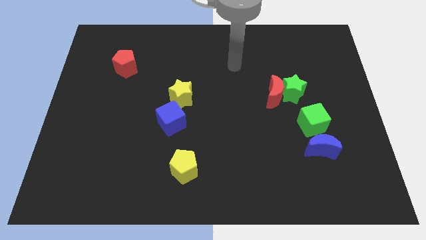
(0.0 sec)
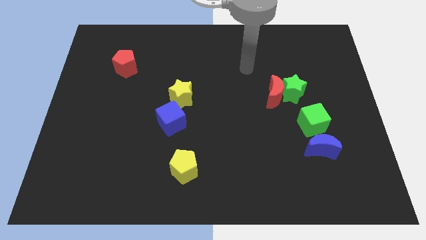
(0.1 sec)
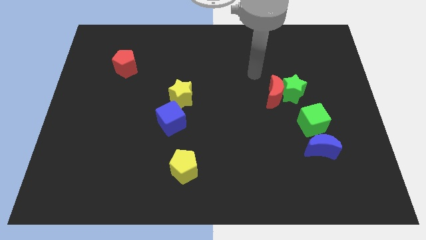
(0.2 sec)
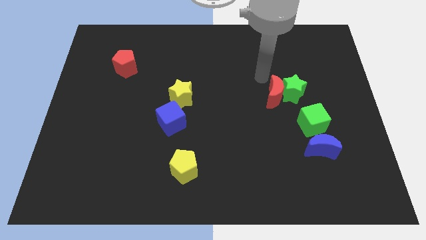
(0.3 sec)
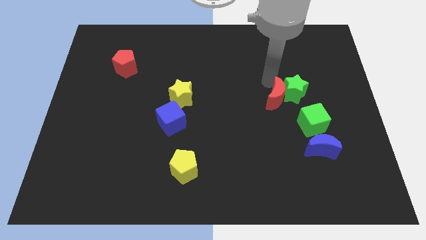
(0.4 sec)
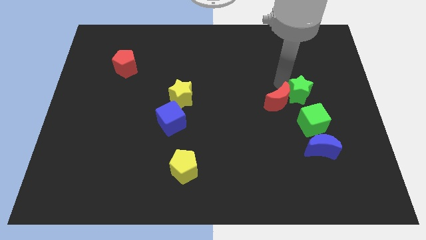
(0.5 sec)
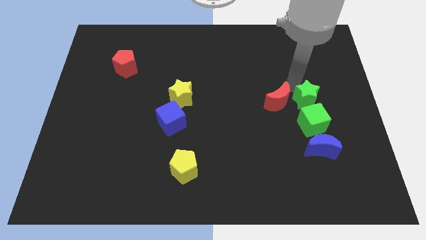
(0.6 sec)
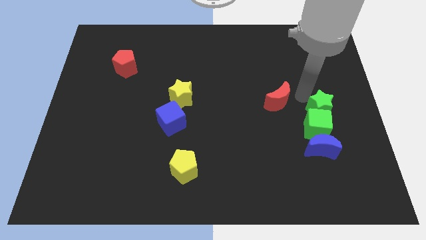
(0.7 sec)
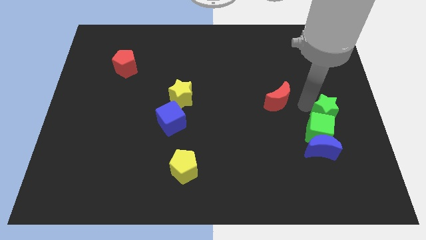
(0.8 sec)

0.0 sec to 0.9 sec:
pull the red moon apart from the green star

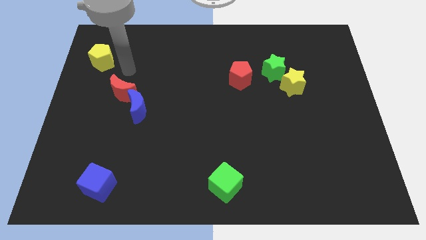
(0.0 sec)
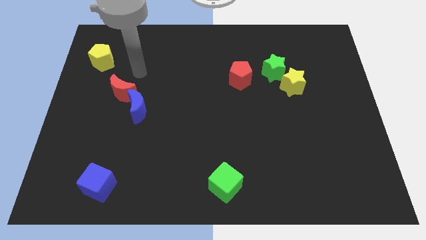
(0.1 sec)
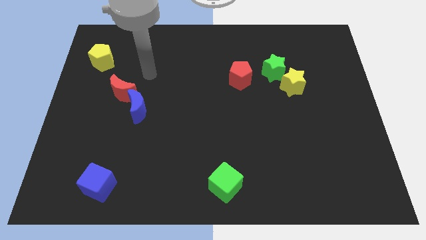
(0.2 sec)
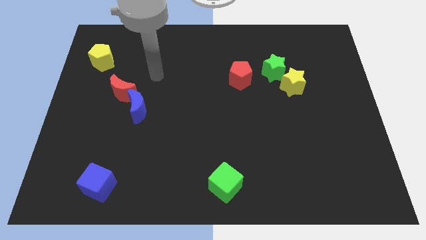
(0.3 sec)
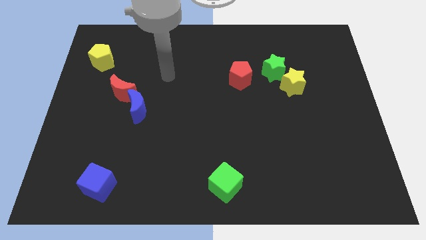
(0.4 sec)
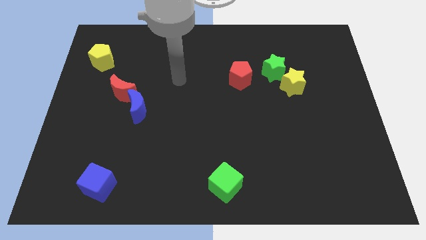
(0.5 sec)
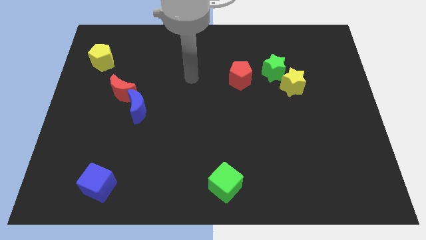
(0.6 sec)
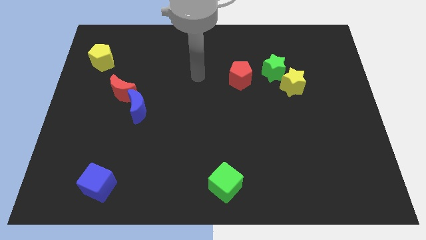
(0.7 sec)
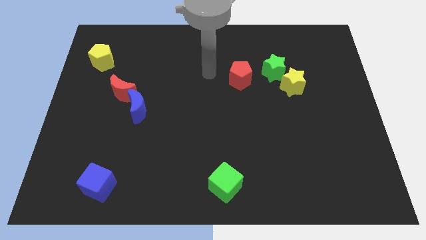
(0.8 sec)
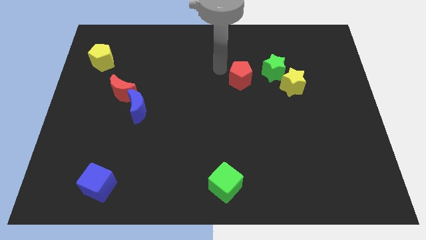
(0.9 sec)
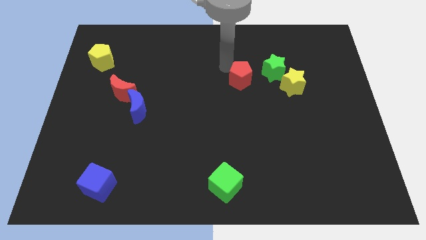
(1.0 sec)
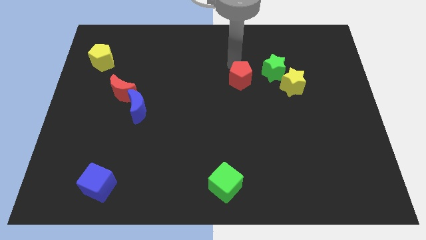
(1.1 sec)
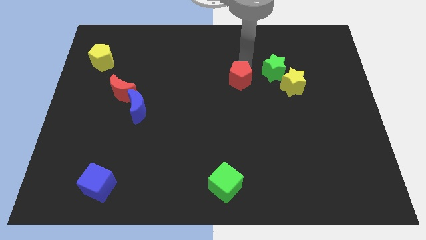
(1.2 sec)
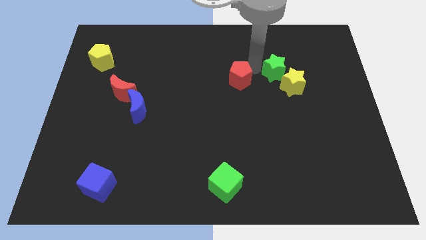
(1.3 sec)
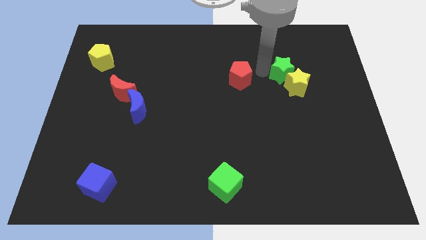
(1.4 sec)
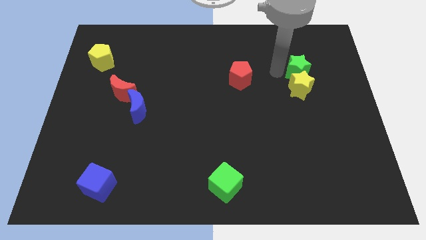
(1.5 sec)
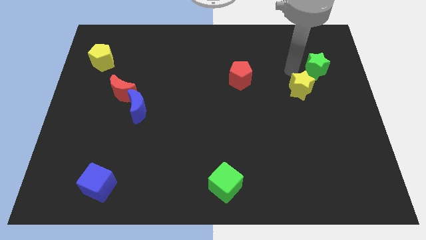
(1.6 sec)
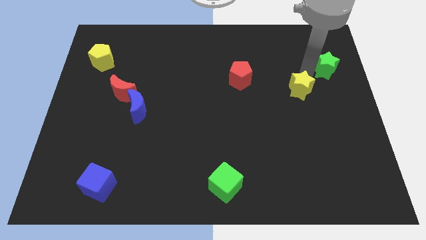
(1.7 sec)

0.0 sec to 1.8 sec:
pull the yellow star apart from the green star

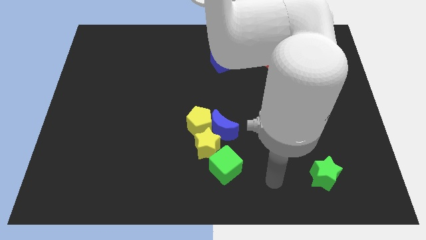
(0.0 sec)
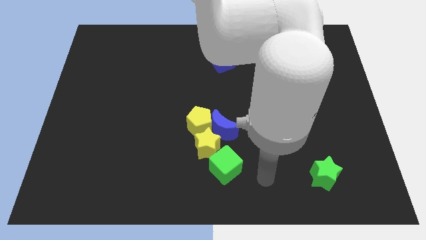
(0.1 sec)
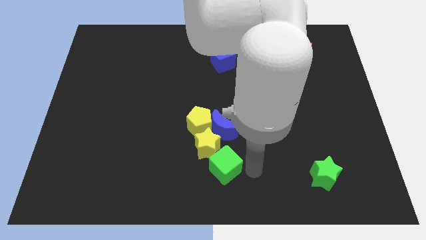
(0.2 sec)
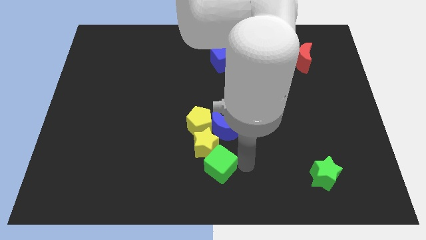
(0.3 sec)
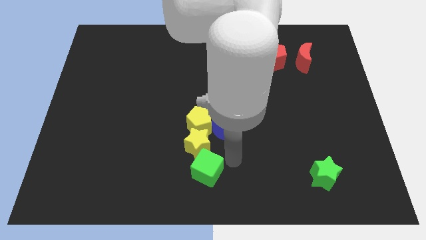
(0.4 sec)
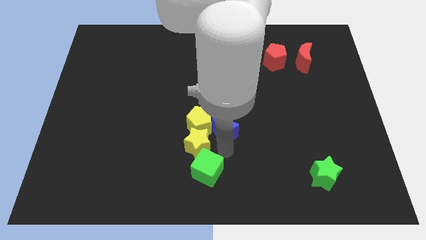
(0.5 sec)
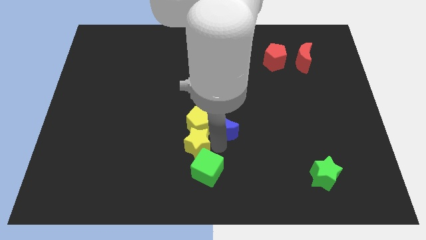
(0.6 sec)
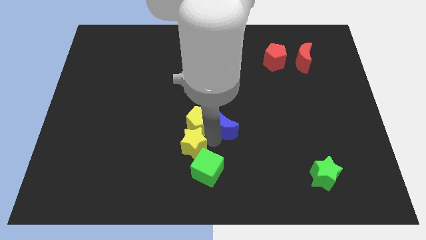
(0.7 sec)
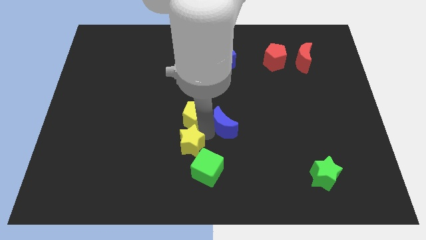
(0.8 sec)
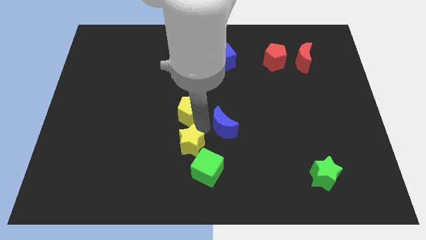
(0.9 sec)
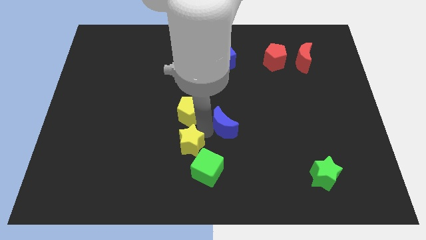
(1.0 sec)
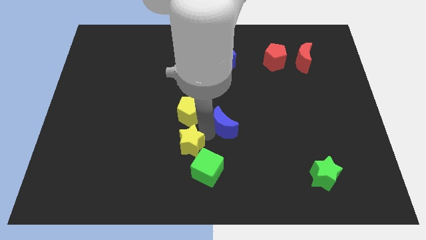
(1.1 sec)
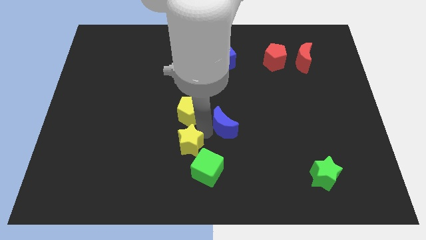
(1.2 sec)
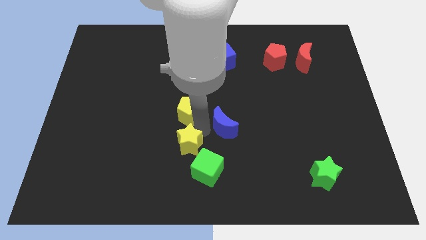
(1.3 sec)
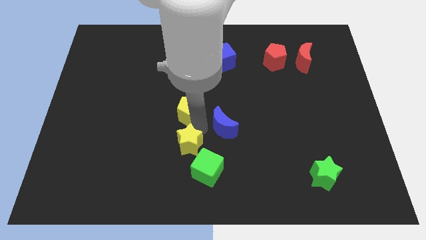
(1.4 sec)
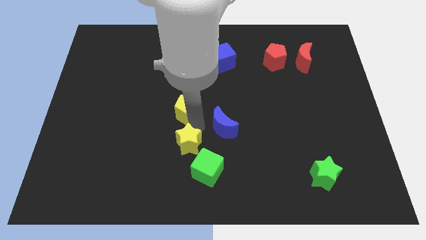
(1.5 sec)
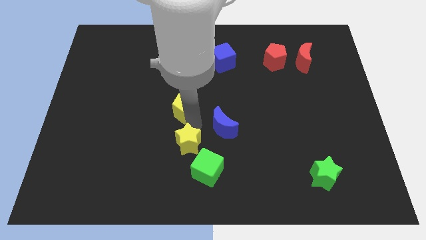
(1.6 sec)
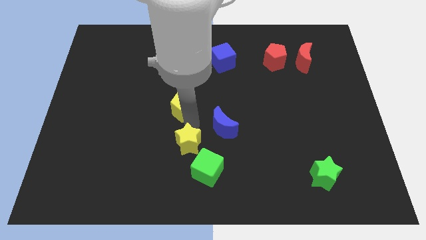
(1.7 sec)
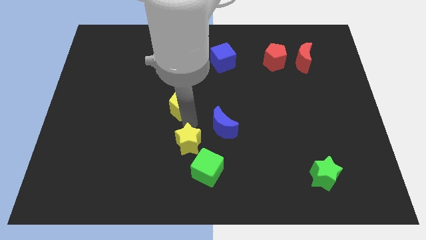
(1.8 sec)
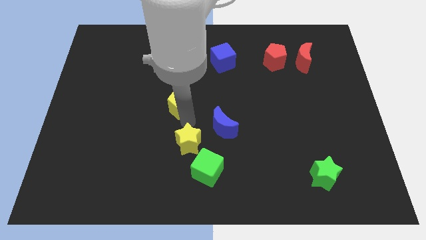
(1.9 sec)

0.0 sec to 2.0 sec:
separate the yellow pentagon from the blue moon and yellow star

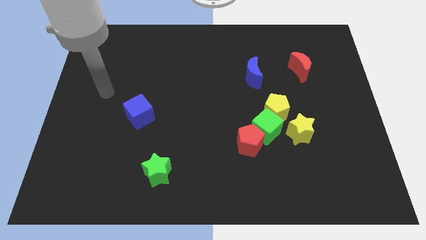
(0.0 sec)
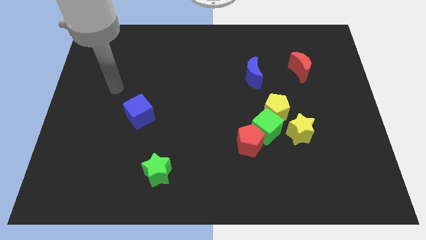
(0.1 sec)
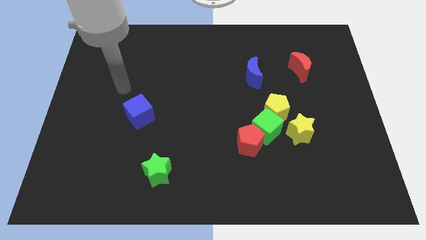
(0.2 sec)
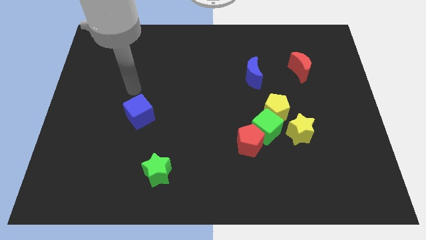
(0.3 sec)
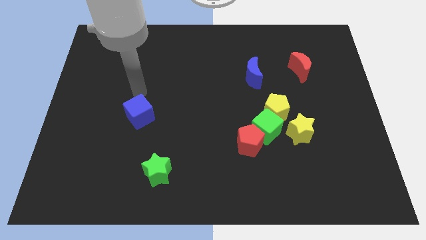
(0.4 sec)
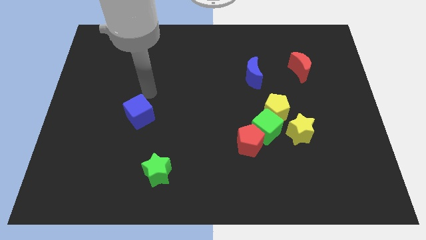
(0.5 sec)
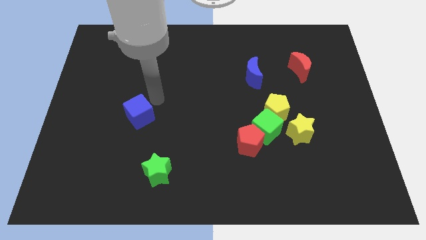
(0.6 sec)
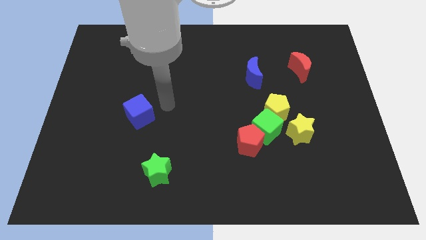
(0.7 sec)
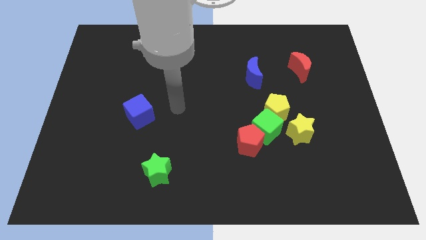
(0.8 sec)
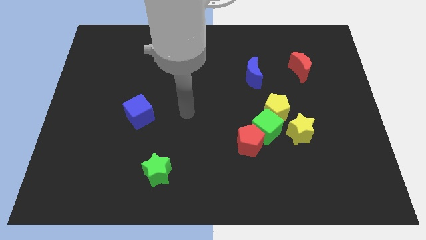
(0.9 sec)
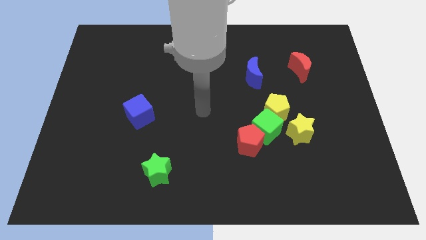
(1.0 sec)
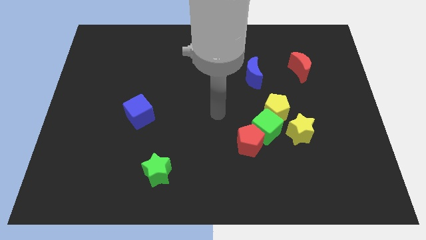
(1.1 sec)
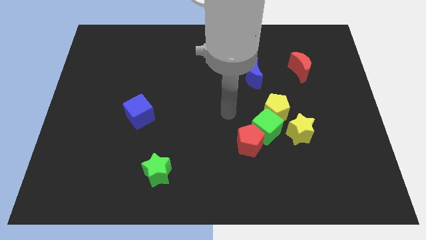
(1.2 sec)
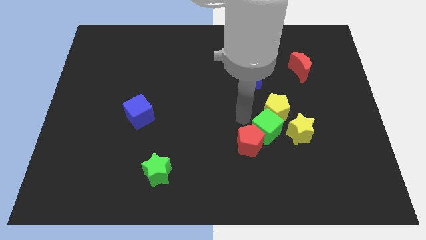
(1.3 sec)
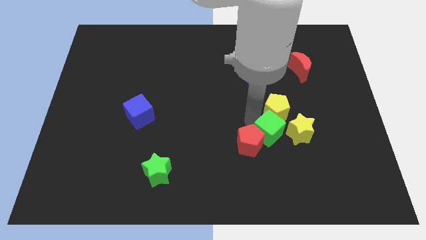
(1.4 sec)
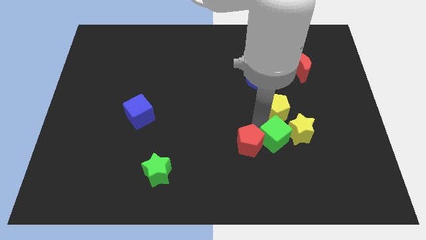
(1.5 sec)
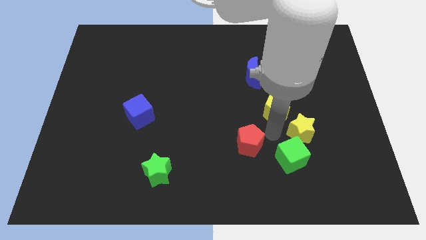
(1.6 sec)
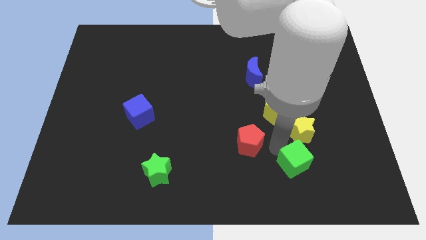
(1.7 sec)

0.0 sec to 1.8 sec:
move the red pentagon away from the green cube

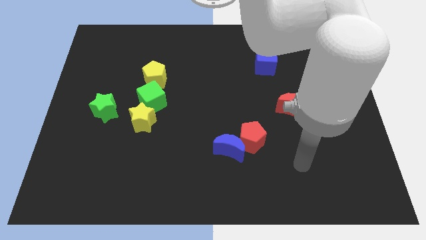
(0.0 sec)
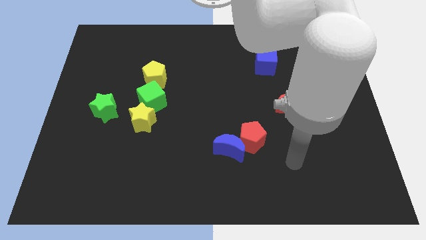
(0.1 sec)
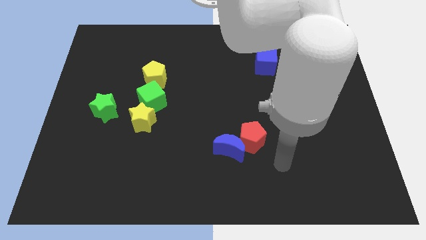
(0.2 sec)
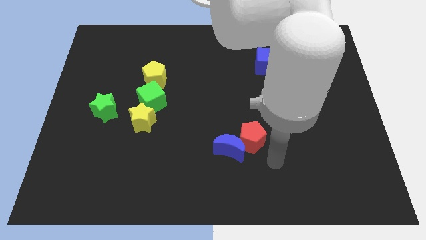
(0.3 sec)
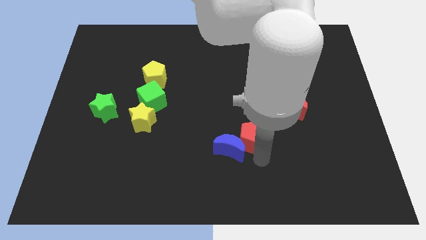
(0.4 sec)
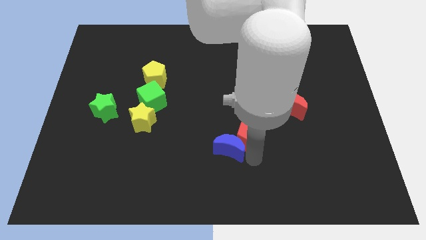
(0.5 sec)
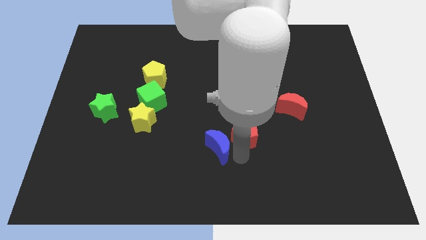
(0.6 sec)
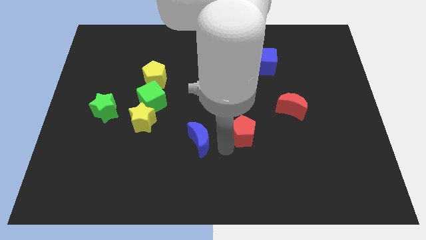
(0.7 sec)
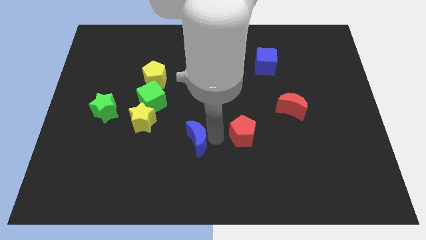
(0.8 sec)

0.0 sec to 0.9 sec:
move the red pentagon away from the blue moon

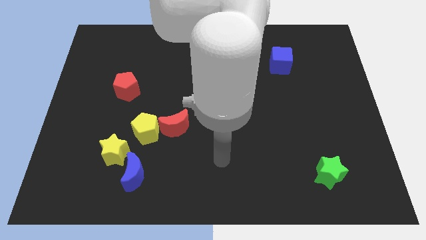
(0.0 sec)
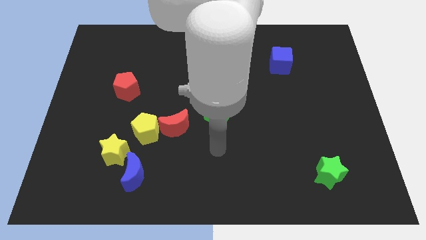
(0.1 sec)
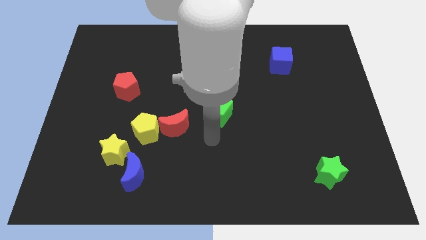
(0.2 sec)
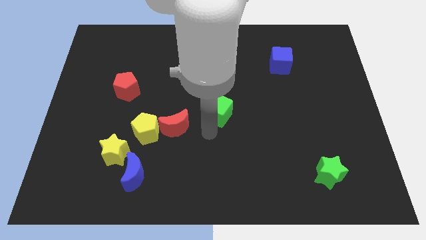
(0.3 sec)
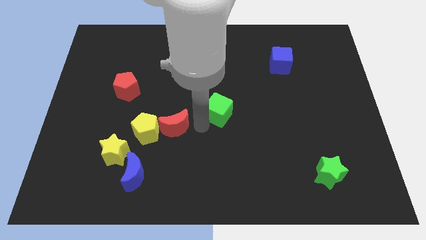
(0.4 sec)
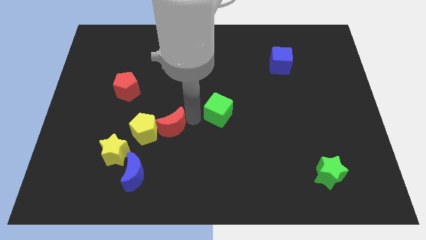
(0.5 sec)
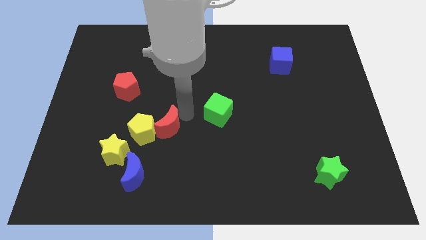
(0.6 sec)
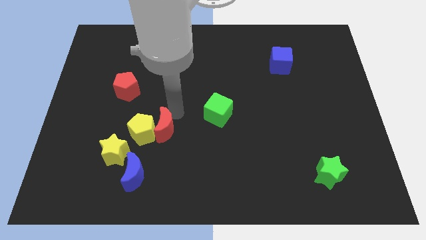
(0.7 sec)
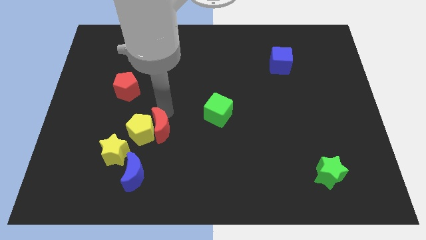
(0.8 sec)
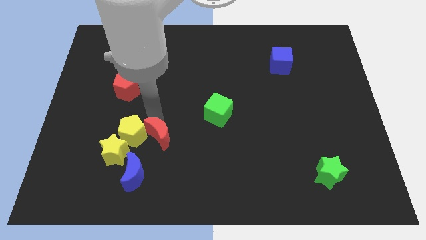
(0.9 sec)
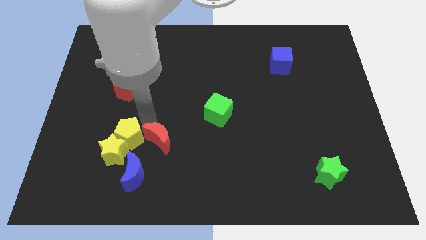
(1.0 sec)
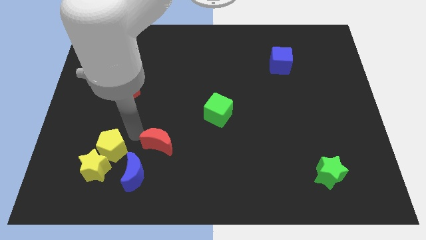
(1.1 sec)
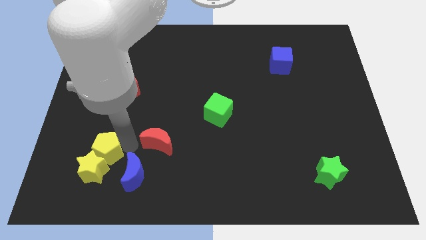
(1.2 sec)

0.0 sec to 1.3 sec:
move the red moon away from the yellow pentagon

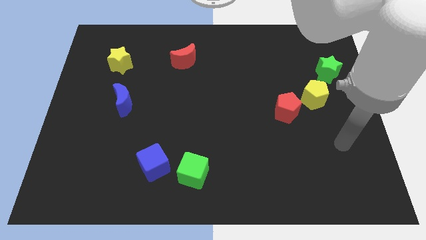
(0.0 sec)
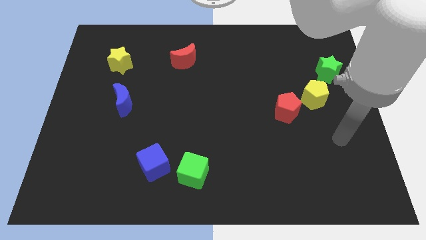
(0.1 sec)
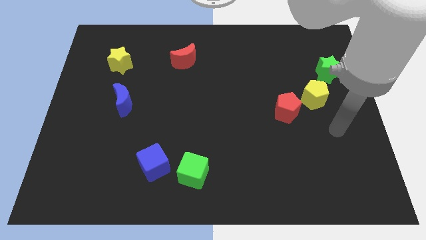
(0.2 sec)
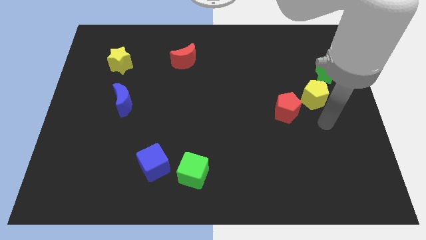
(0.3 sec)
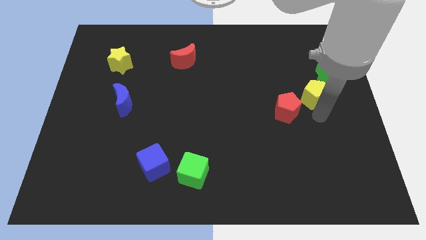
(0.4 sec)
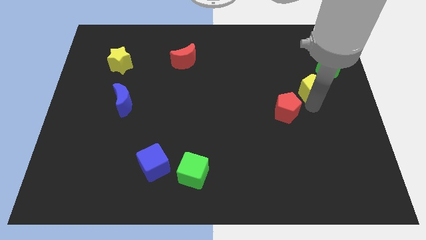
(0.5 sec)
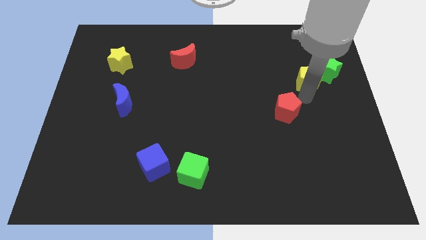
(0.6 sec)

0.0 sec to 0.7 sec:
move the red pentagon away from the yellow pentagon
